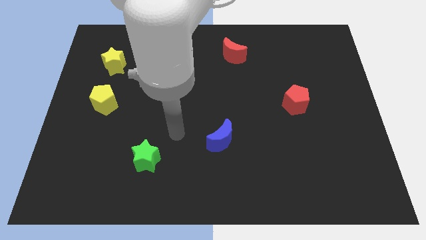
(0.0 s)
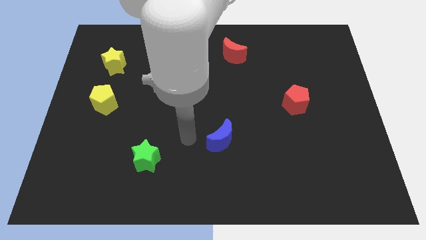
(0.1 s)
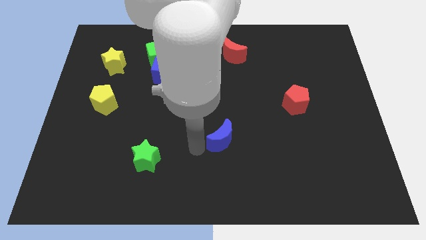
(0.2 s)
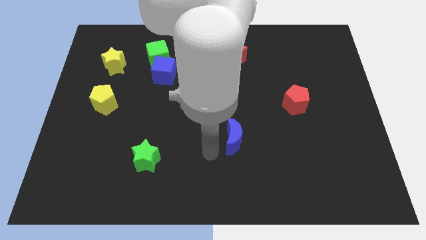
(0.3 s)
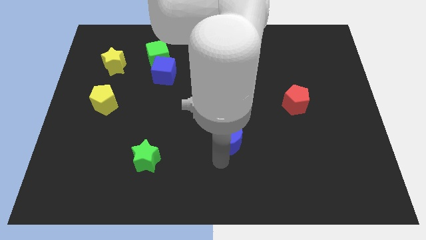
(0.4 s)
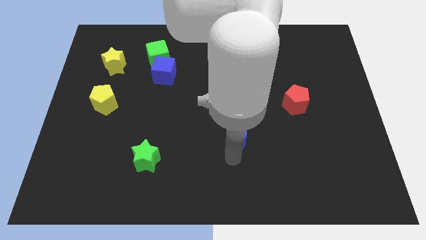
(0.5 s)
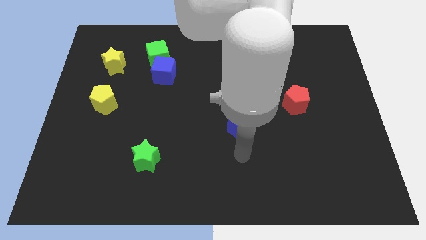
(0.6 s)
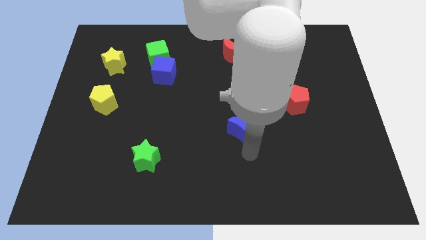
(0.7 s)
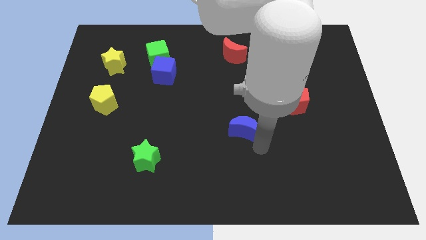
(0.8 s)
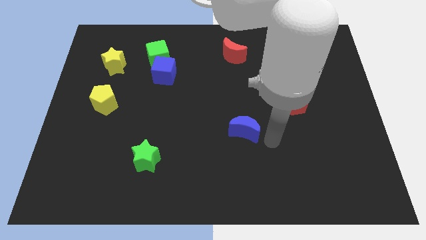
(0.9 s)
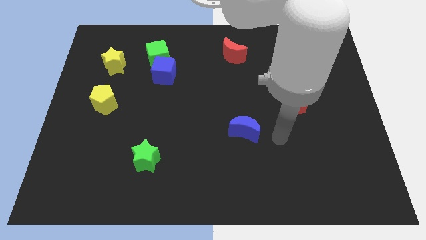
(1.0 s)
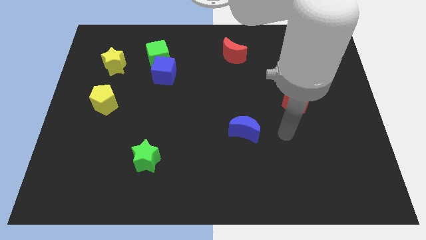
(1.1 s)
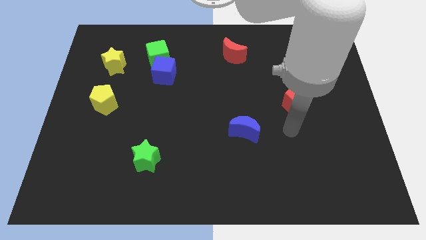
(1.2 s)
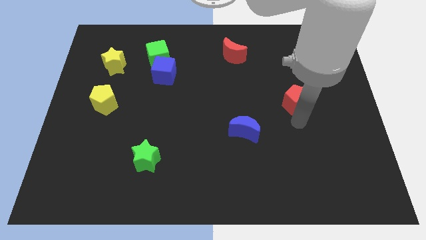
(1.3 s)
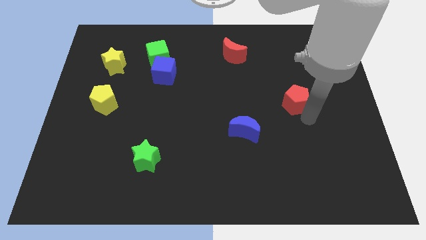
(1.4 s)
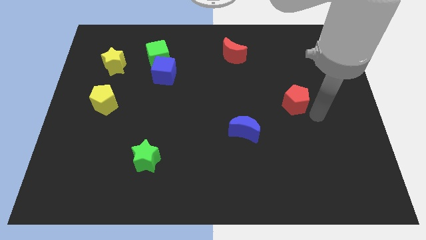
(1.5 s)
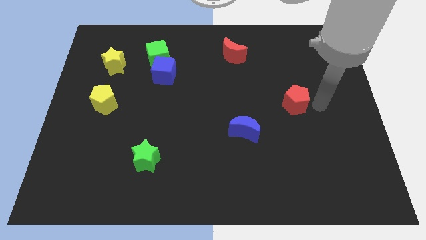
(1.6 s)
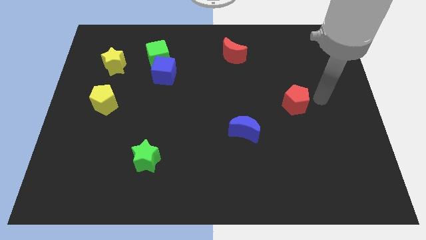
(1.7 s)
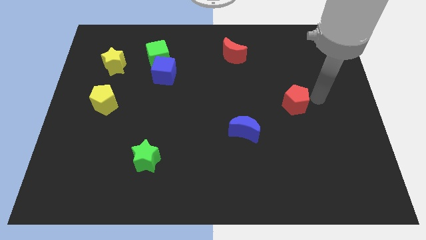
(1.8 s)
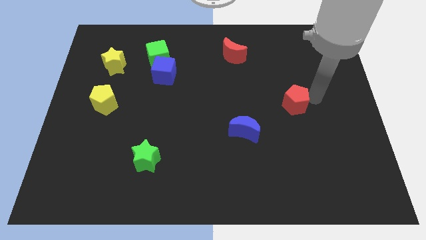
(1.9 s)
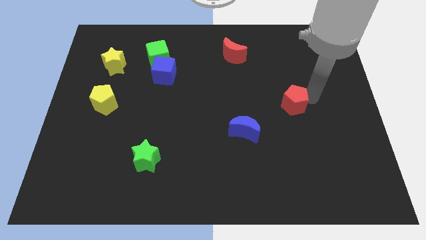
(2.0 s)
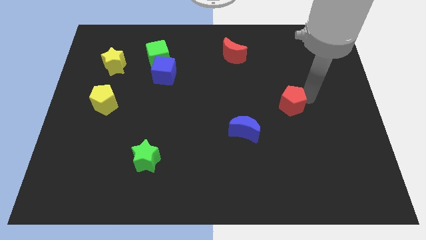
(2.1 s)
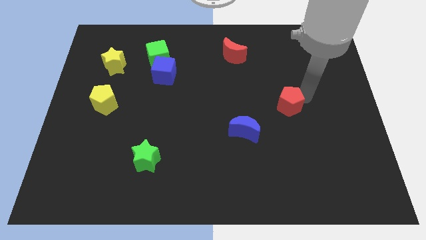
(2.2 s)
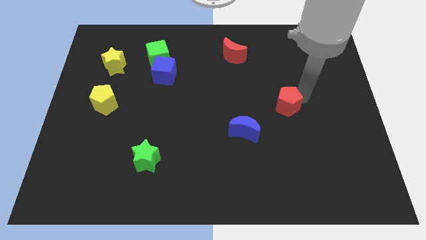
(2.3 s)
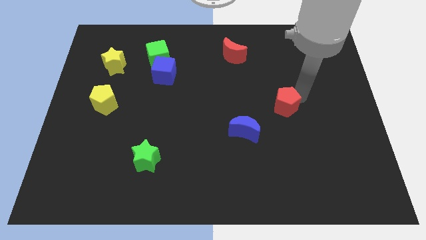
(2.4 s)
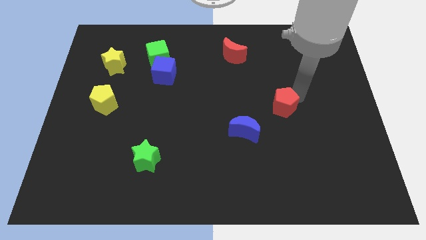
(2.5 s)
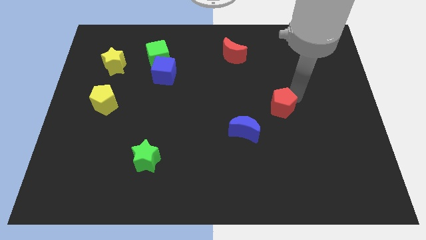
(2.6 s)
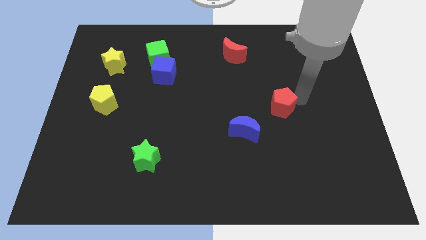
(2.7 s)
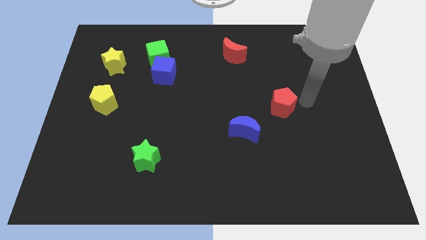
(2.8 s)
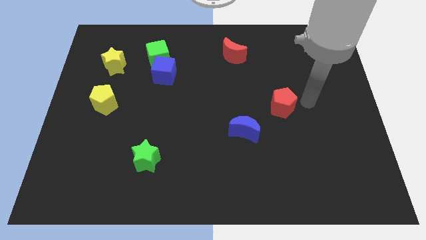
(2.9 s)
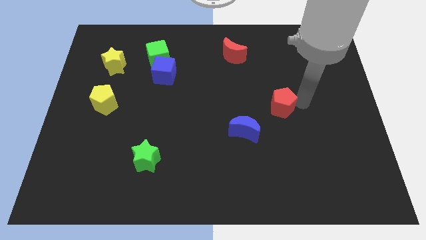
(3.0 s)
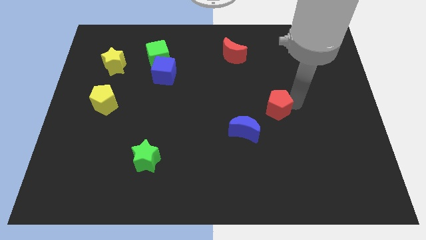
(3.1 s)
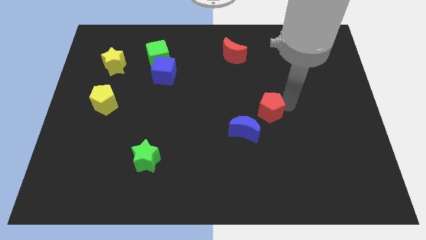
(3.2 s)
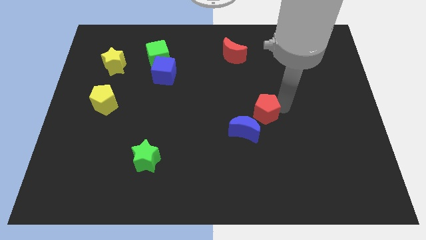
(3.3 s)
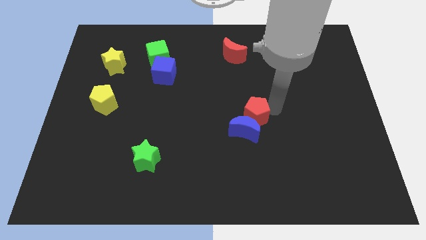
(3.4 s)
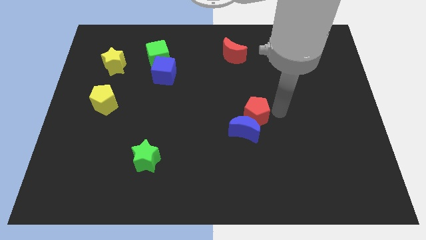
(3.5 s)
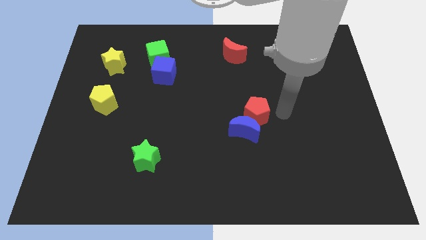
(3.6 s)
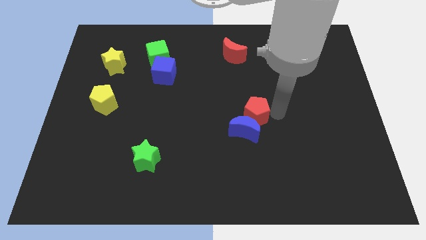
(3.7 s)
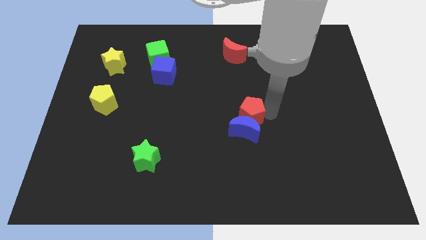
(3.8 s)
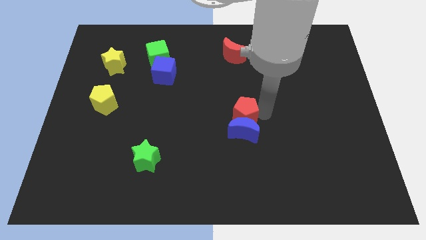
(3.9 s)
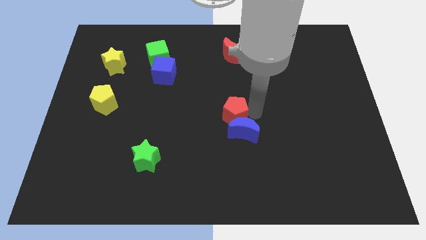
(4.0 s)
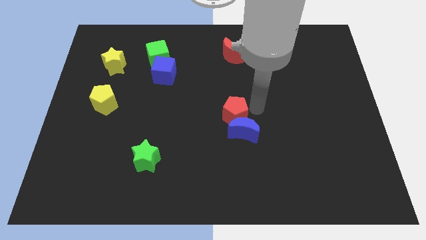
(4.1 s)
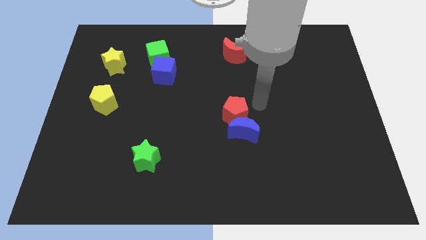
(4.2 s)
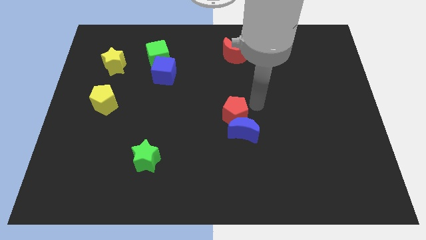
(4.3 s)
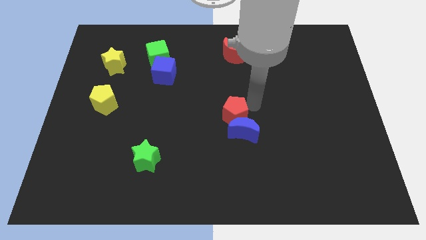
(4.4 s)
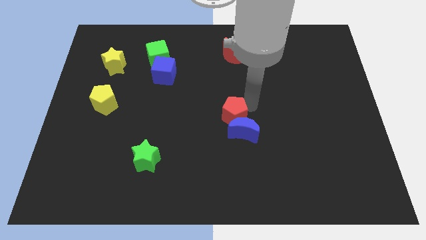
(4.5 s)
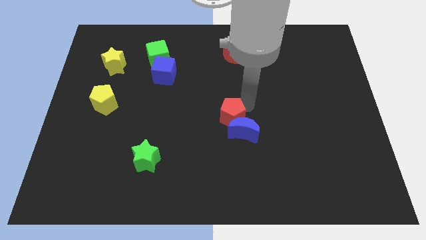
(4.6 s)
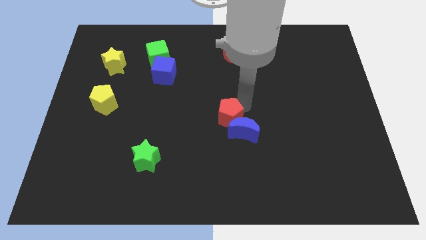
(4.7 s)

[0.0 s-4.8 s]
put the red pentagon just left of the blue moon

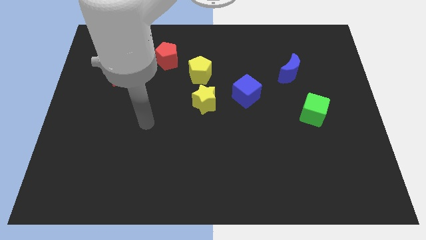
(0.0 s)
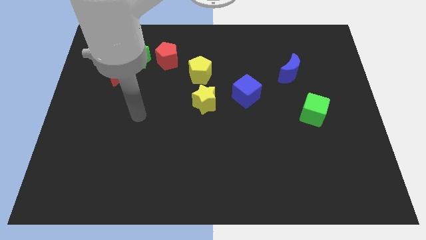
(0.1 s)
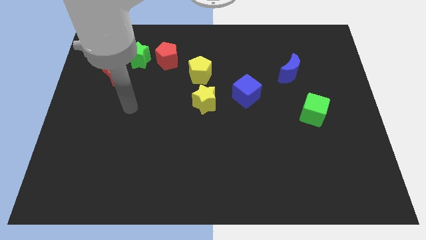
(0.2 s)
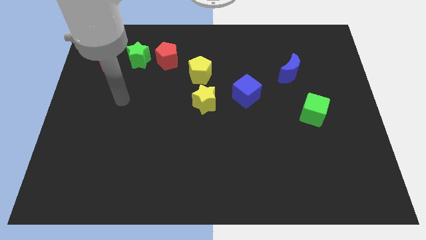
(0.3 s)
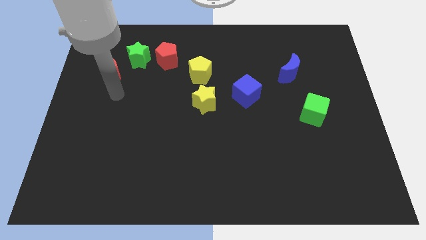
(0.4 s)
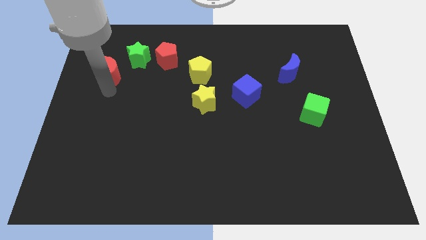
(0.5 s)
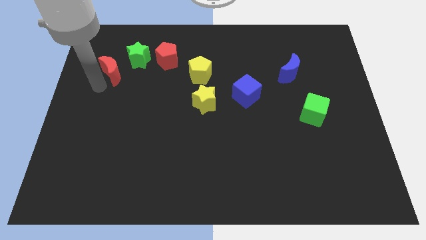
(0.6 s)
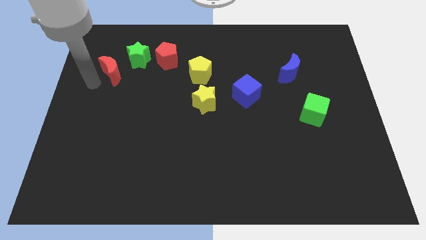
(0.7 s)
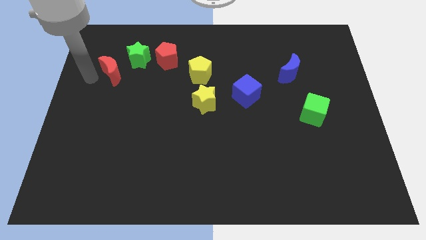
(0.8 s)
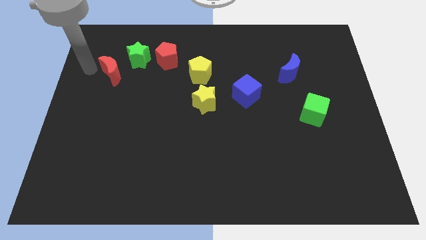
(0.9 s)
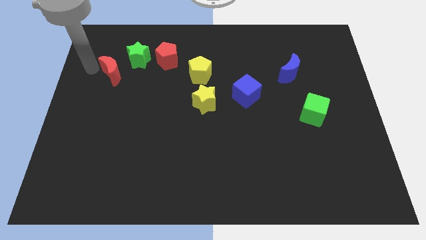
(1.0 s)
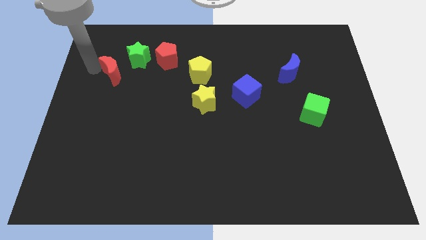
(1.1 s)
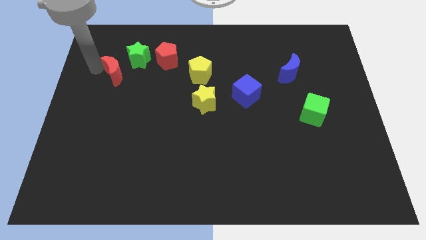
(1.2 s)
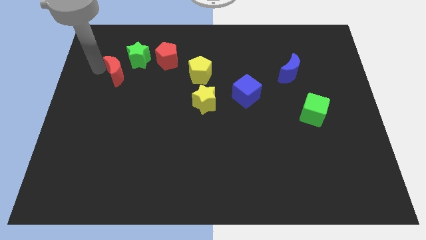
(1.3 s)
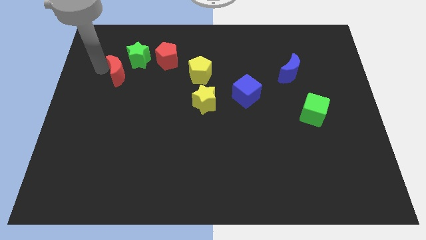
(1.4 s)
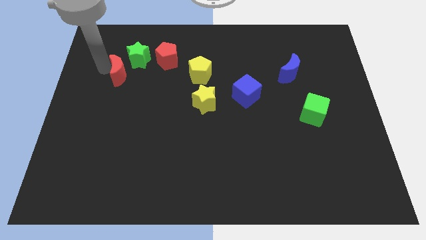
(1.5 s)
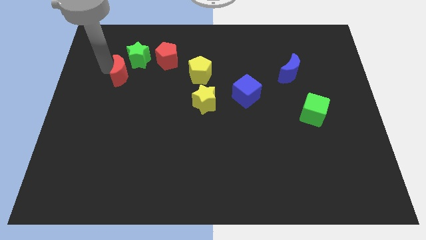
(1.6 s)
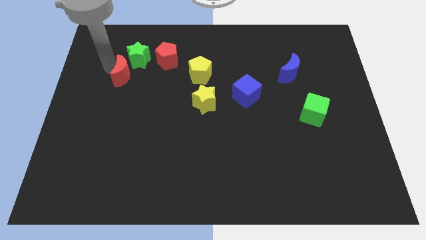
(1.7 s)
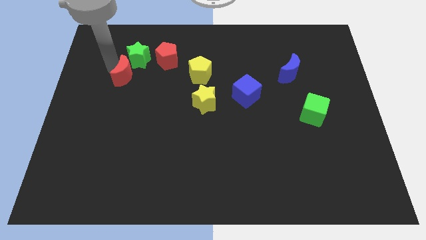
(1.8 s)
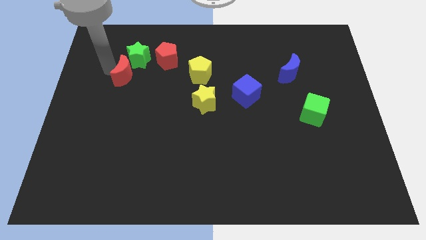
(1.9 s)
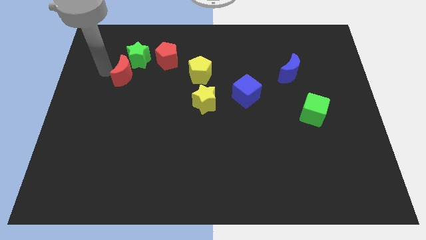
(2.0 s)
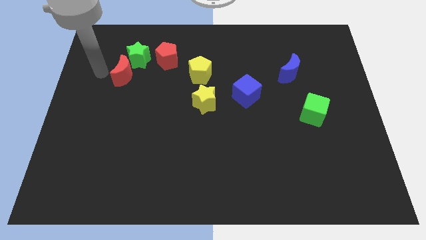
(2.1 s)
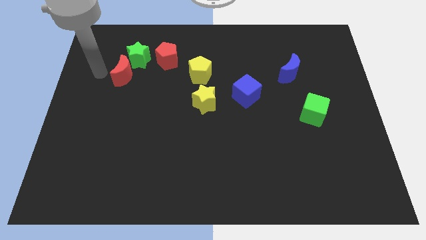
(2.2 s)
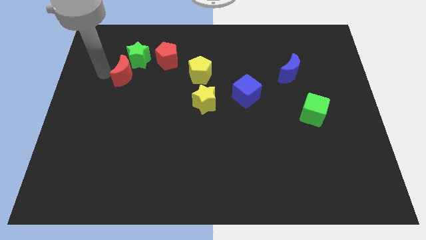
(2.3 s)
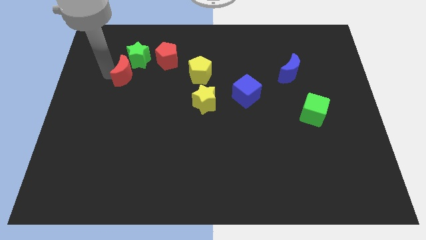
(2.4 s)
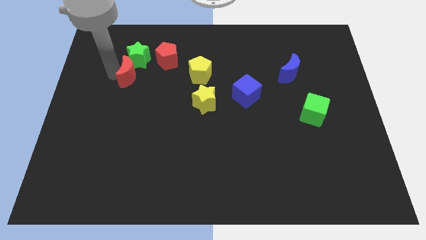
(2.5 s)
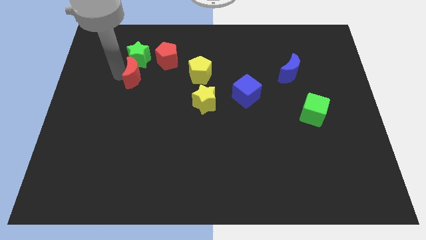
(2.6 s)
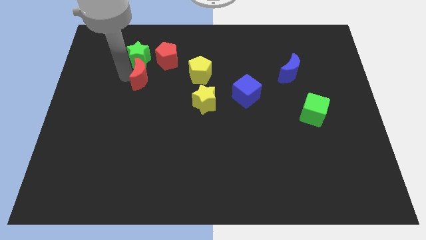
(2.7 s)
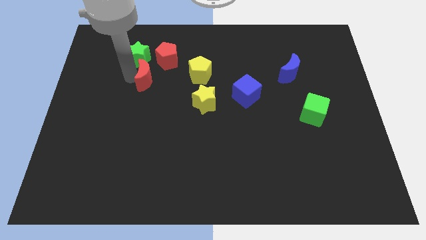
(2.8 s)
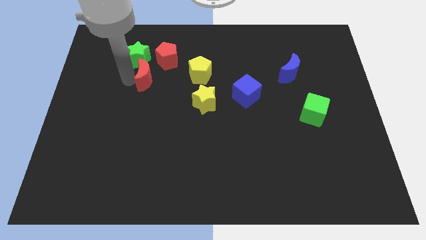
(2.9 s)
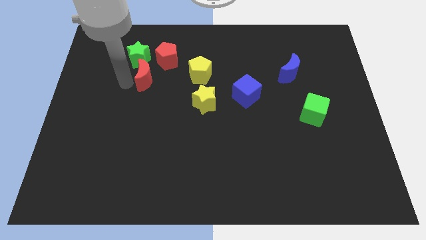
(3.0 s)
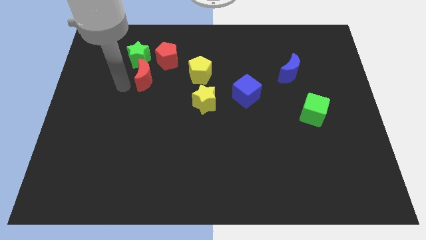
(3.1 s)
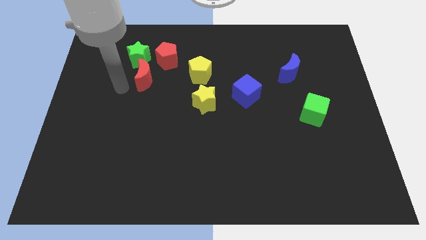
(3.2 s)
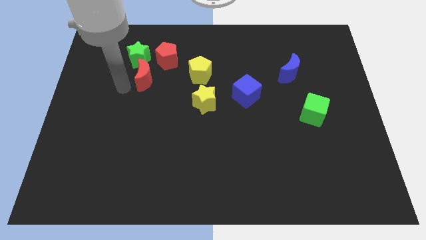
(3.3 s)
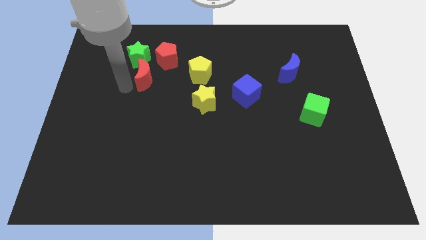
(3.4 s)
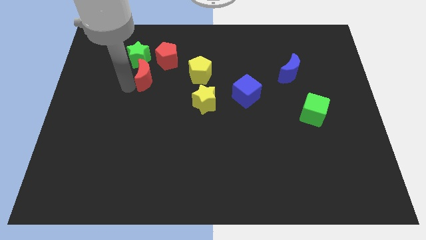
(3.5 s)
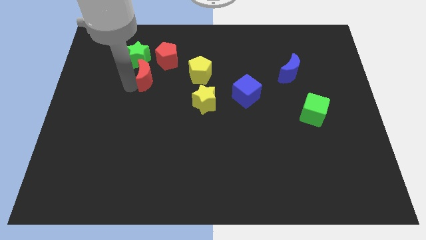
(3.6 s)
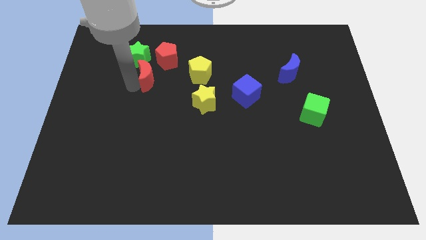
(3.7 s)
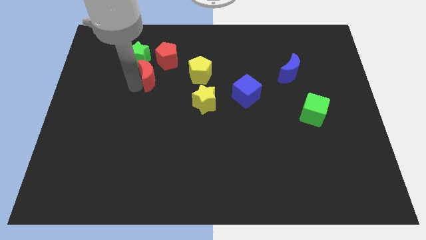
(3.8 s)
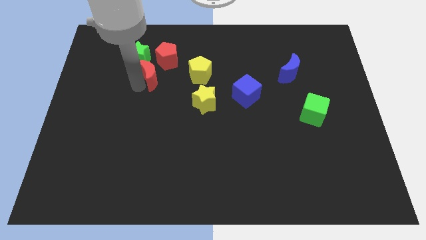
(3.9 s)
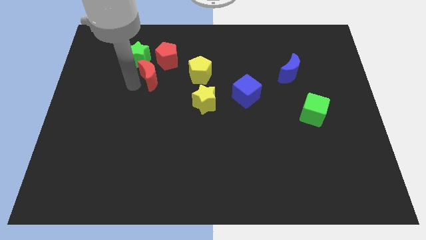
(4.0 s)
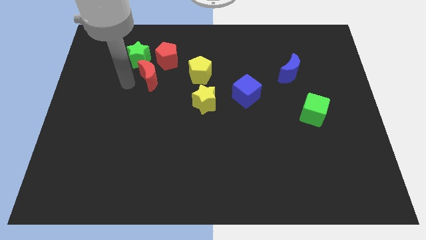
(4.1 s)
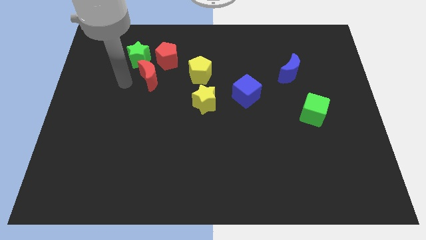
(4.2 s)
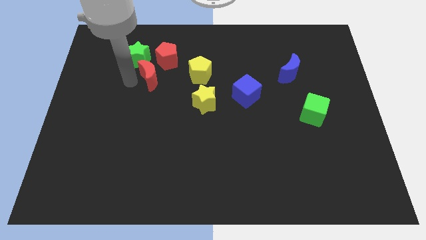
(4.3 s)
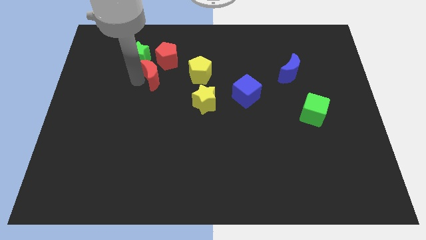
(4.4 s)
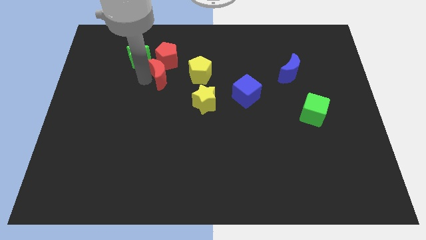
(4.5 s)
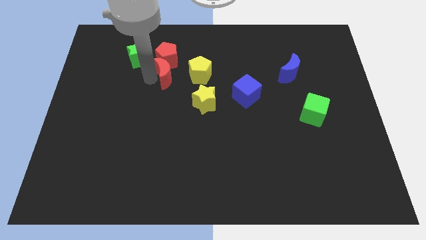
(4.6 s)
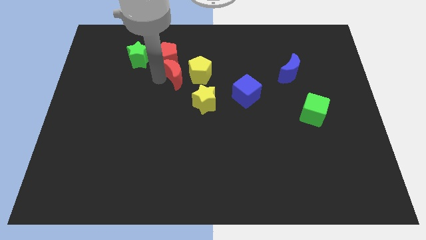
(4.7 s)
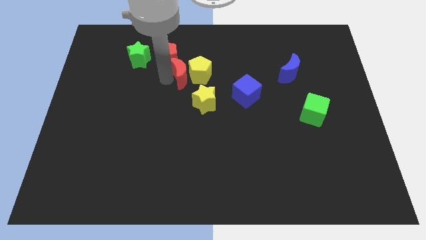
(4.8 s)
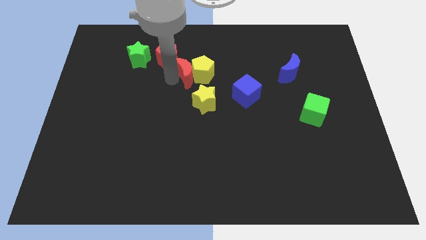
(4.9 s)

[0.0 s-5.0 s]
put the red moon to the top of the yellow star
